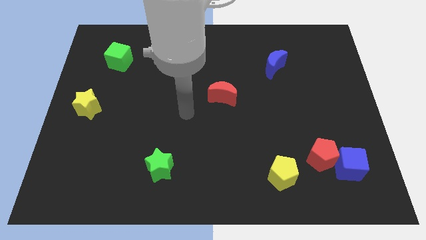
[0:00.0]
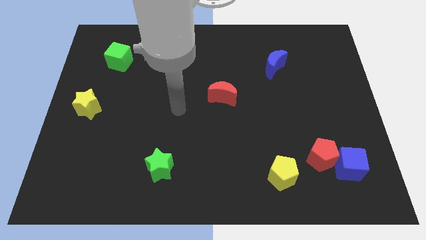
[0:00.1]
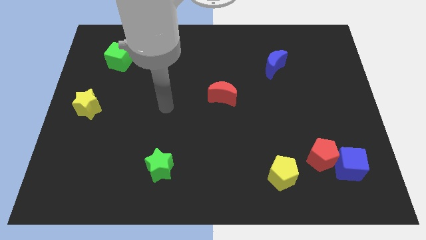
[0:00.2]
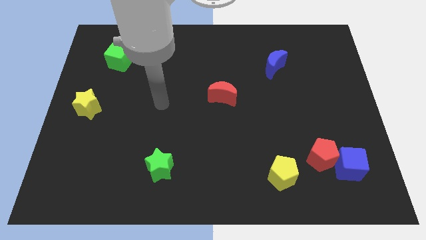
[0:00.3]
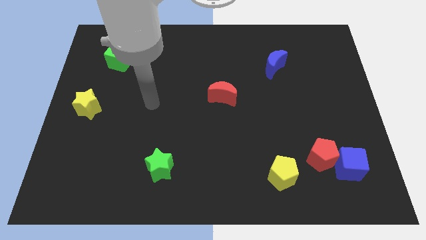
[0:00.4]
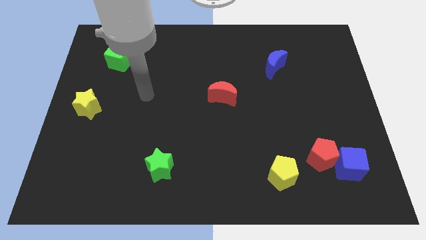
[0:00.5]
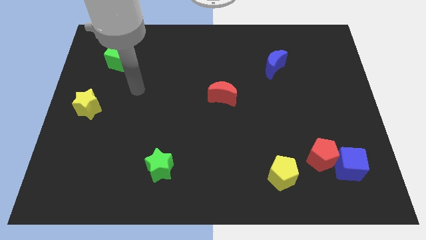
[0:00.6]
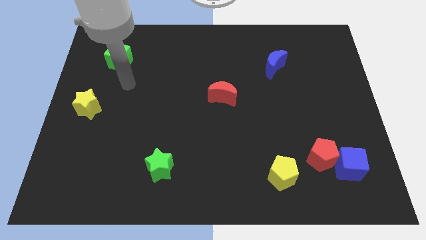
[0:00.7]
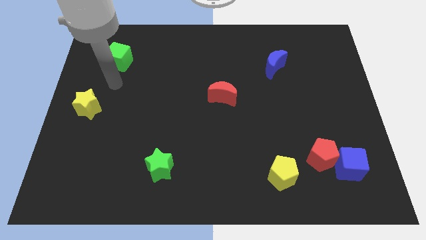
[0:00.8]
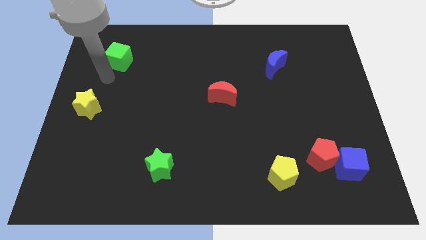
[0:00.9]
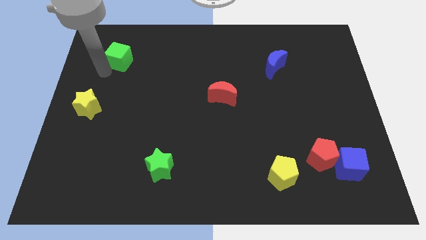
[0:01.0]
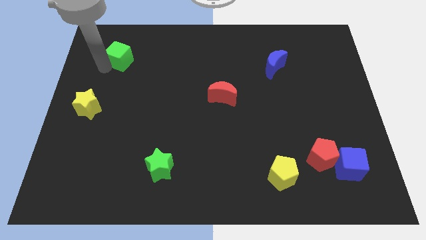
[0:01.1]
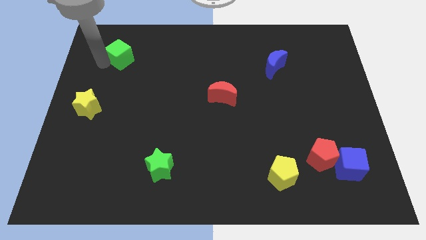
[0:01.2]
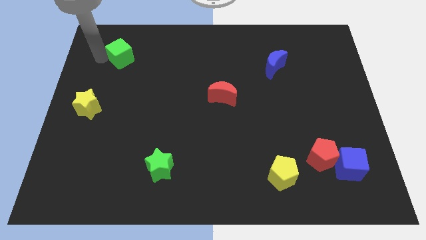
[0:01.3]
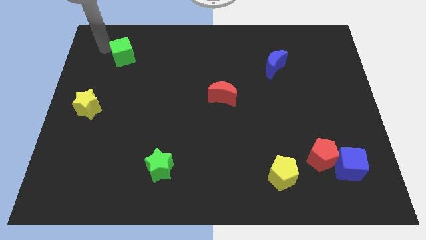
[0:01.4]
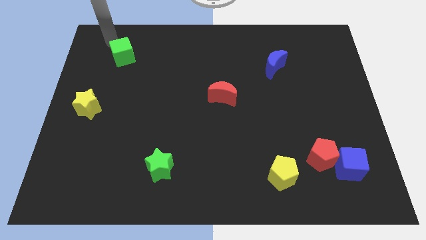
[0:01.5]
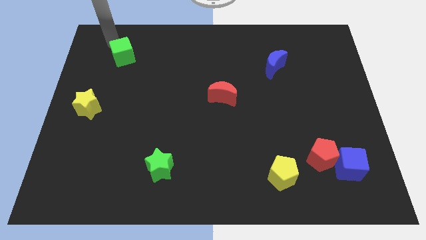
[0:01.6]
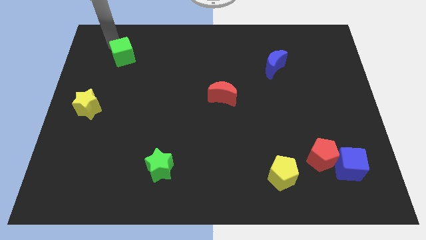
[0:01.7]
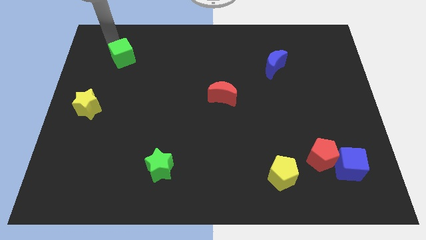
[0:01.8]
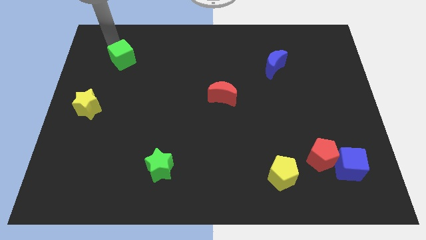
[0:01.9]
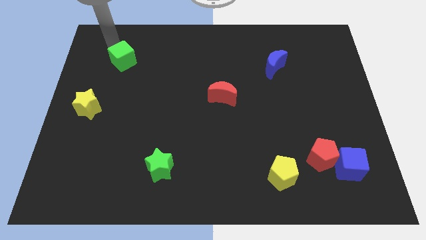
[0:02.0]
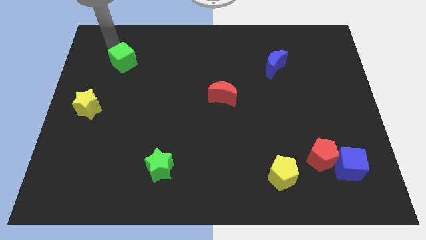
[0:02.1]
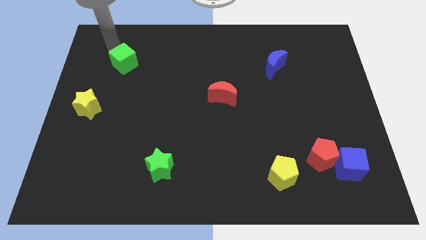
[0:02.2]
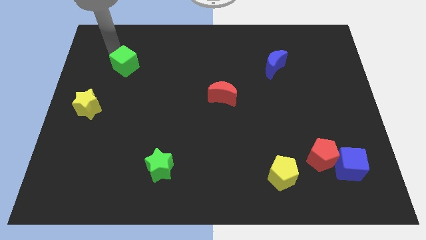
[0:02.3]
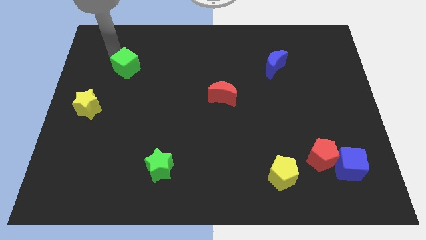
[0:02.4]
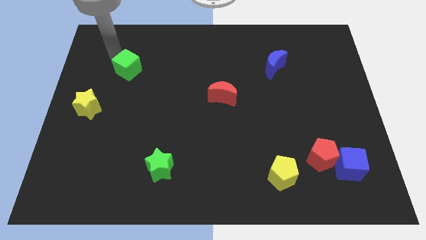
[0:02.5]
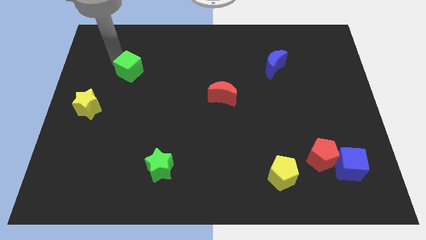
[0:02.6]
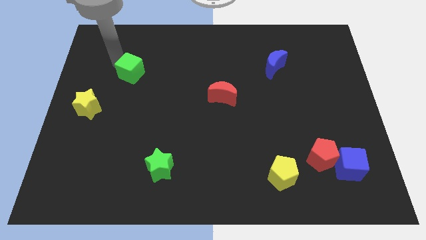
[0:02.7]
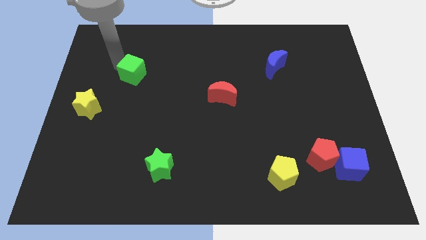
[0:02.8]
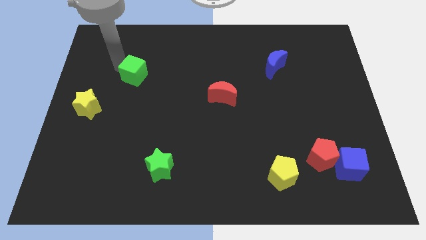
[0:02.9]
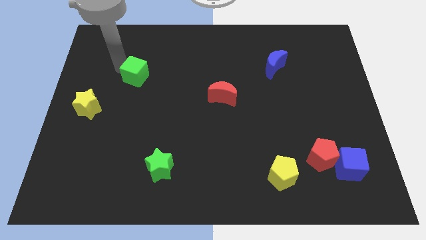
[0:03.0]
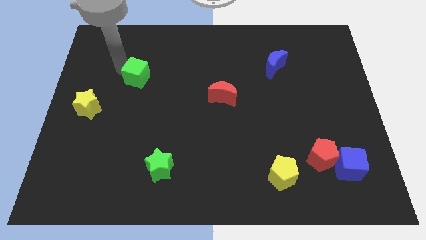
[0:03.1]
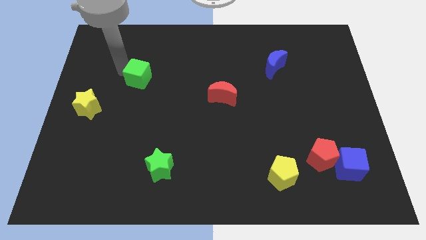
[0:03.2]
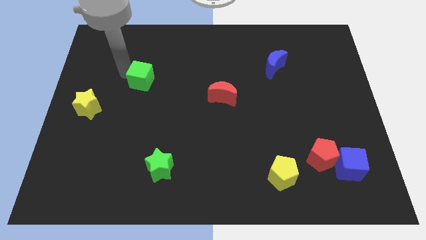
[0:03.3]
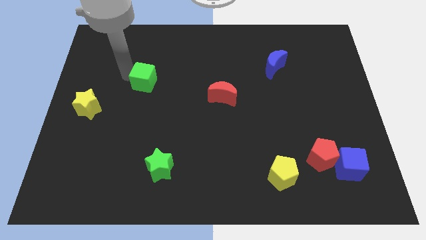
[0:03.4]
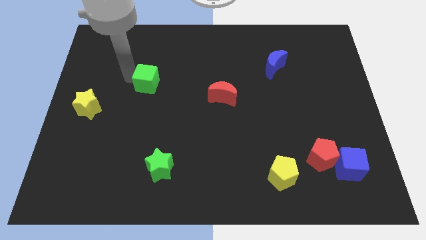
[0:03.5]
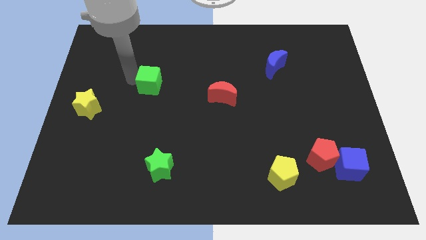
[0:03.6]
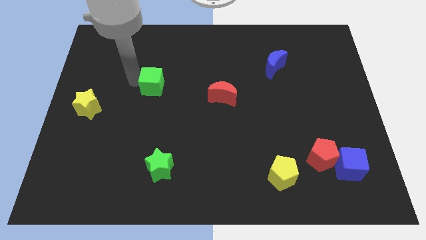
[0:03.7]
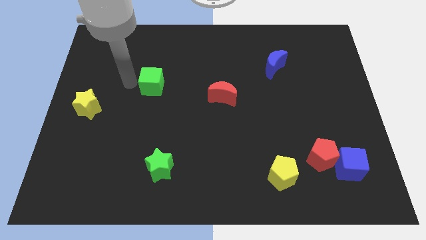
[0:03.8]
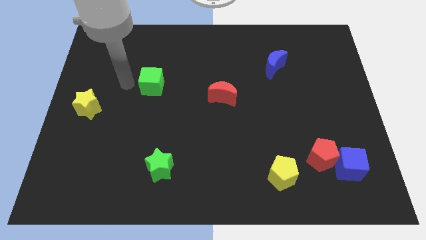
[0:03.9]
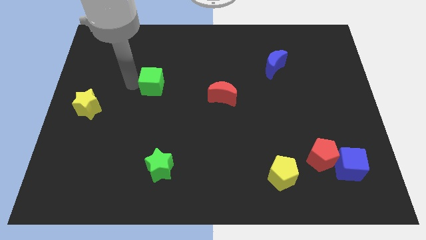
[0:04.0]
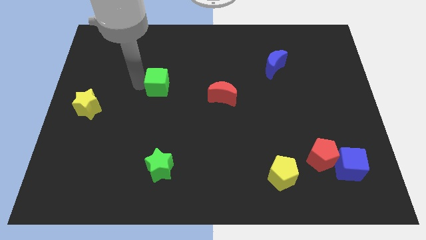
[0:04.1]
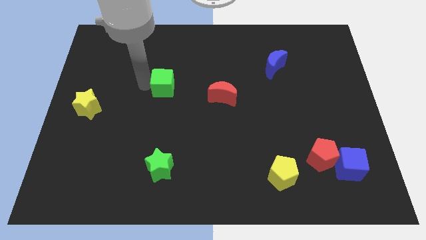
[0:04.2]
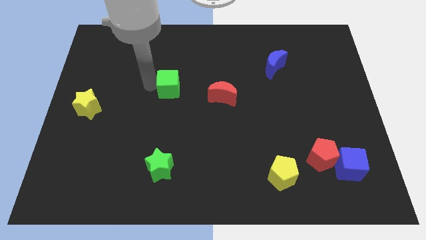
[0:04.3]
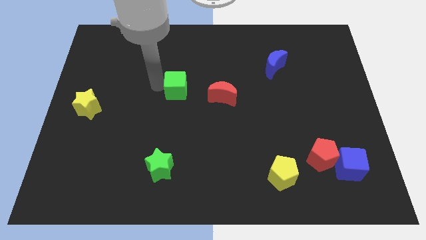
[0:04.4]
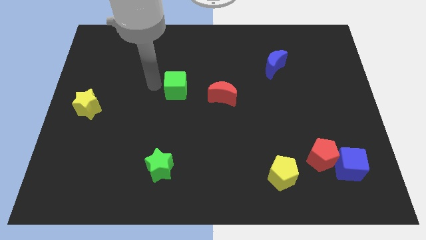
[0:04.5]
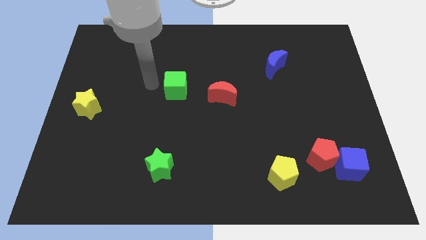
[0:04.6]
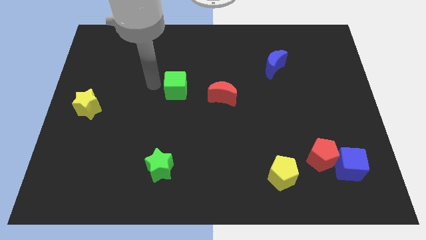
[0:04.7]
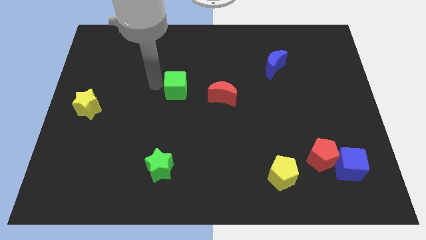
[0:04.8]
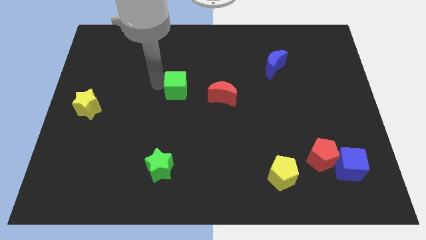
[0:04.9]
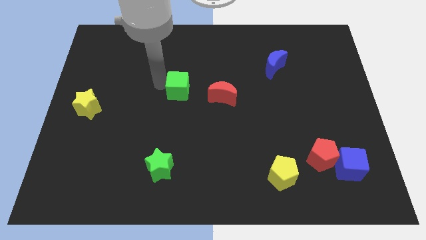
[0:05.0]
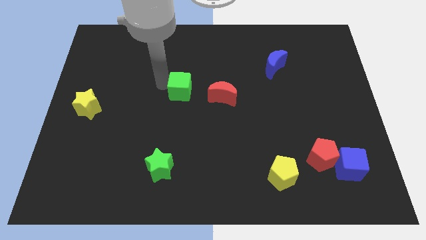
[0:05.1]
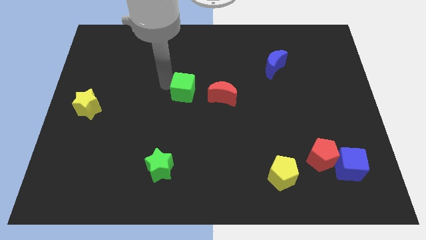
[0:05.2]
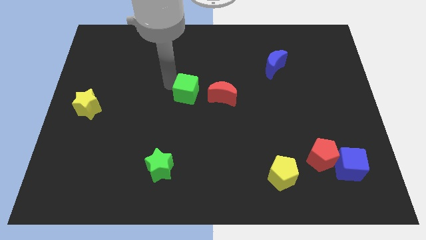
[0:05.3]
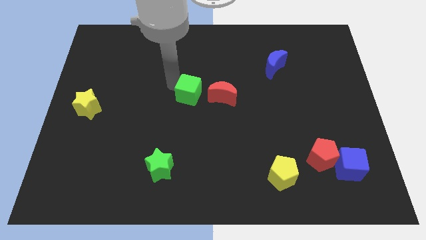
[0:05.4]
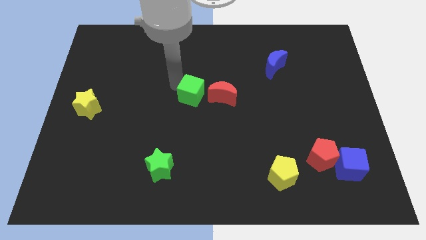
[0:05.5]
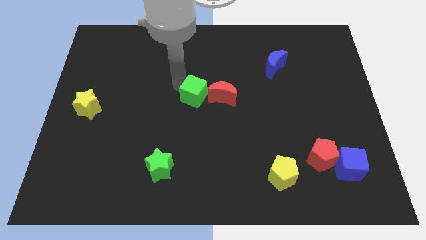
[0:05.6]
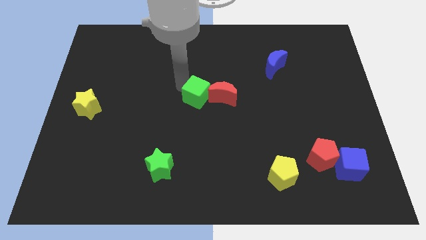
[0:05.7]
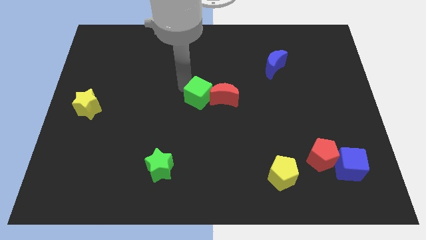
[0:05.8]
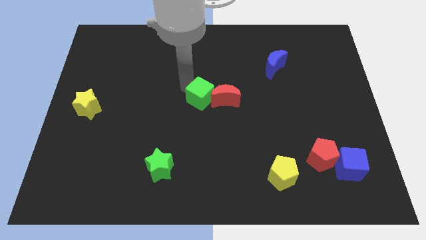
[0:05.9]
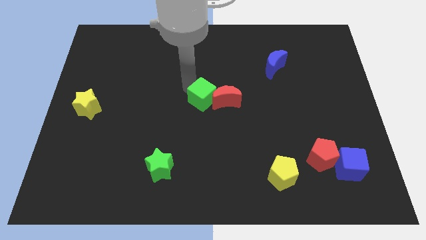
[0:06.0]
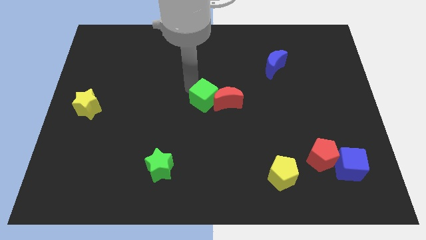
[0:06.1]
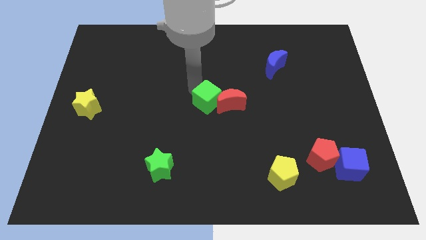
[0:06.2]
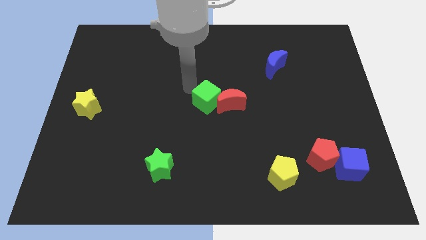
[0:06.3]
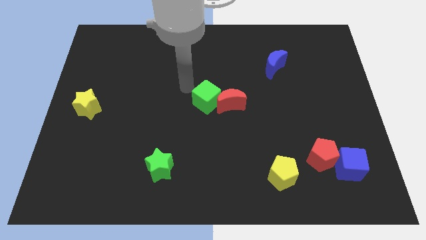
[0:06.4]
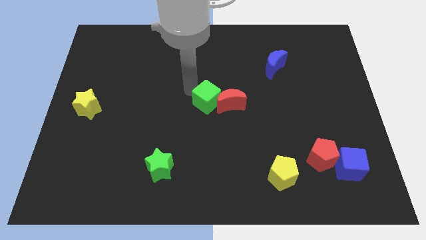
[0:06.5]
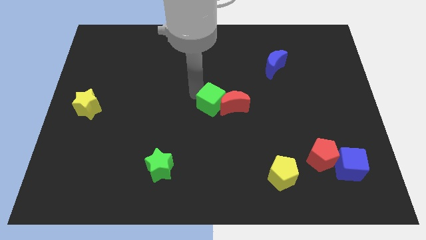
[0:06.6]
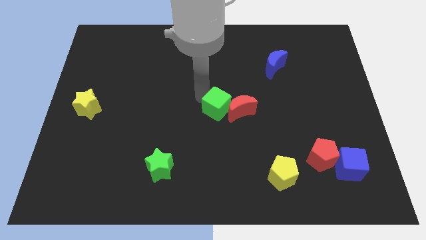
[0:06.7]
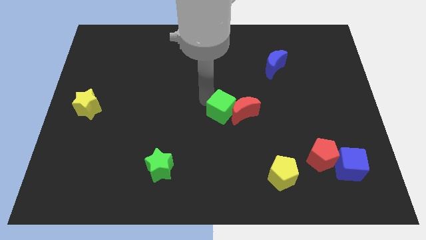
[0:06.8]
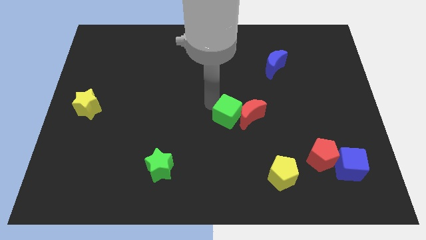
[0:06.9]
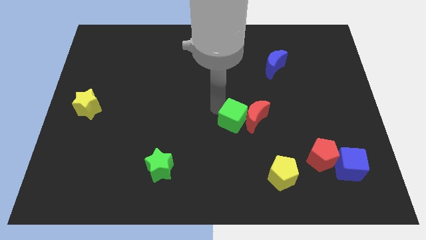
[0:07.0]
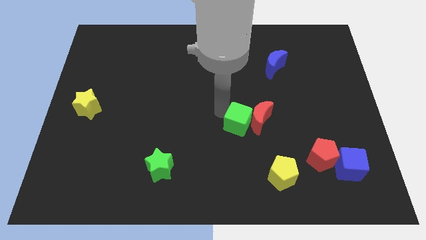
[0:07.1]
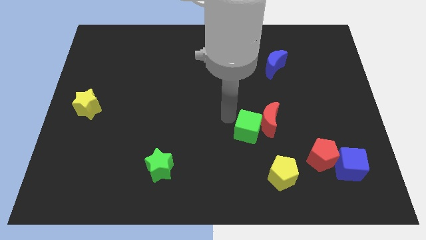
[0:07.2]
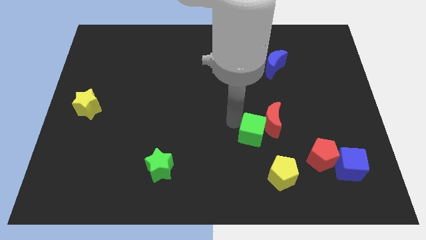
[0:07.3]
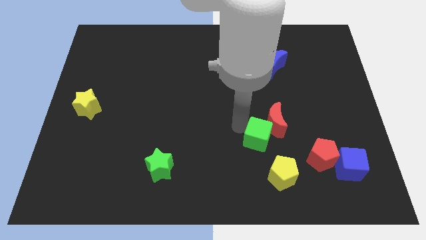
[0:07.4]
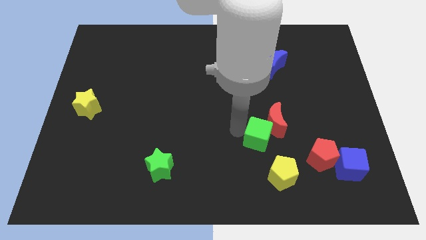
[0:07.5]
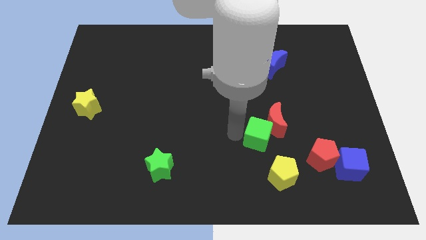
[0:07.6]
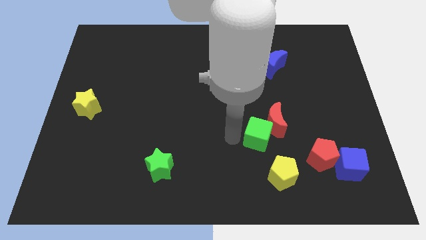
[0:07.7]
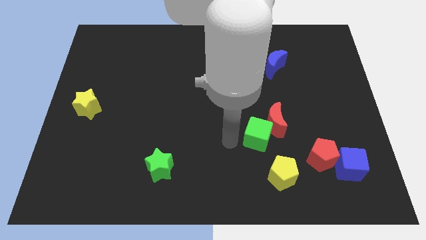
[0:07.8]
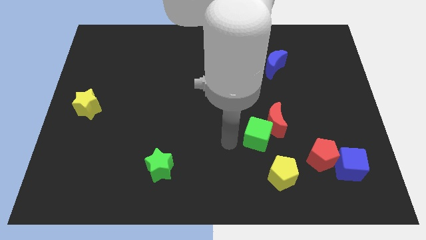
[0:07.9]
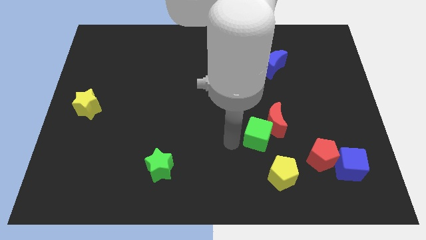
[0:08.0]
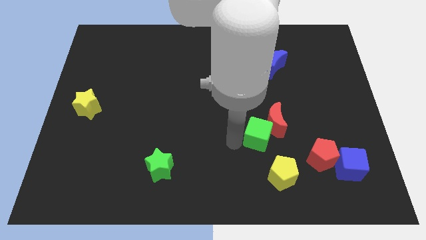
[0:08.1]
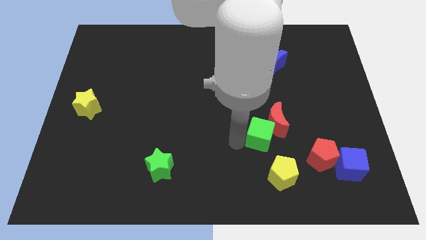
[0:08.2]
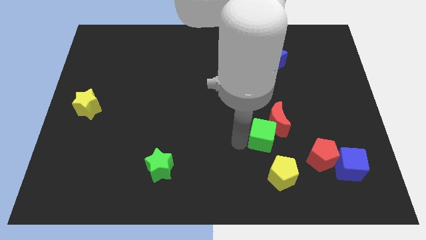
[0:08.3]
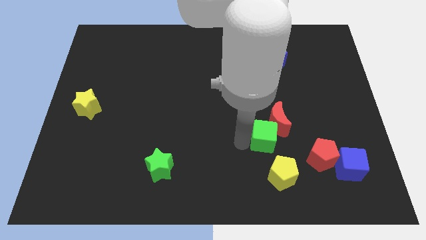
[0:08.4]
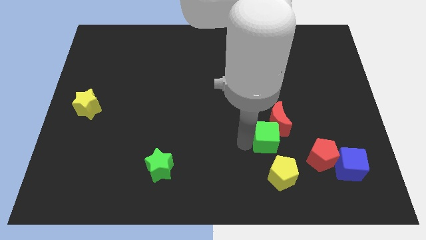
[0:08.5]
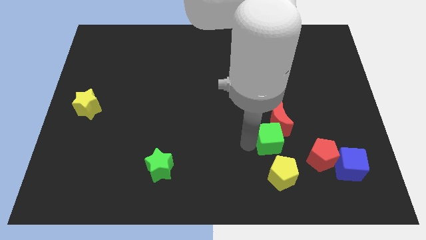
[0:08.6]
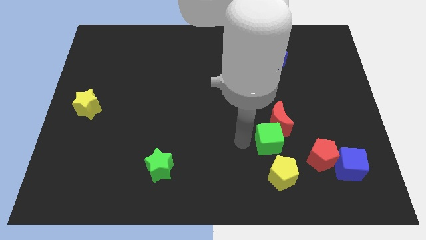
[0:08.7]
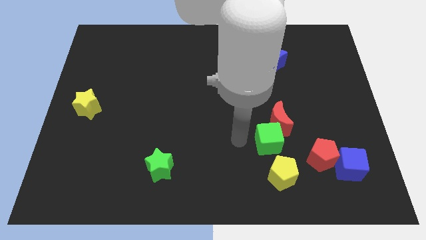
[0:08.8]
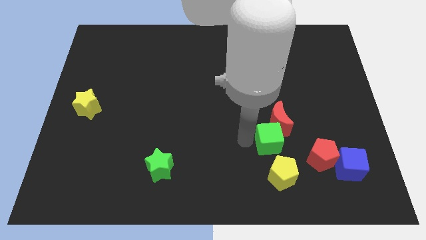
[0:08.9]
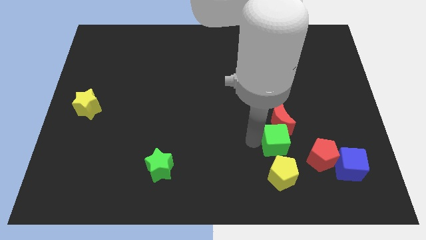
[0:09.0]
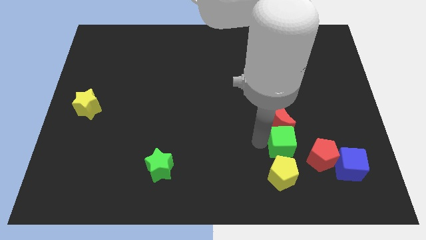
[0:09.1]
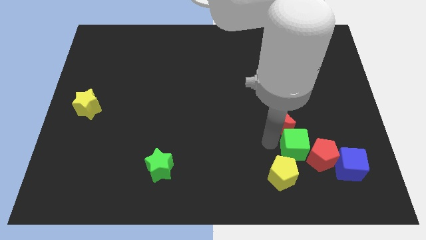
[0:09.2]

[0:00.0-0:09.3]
push the green cube towards the red pentagon
